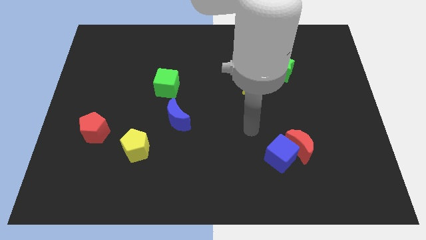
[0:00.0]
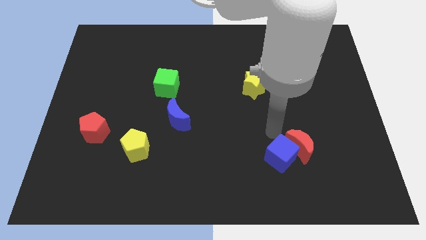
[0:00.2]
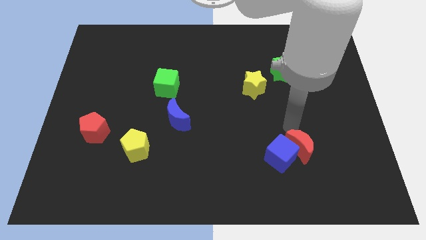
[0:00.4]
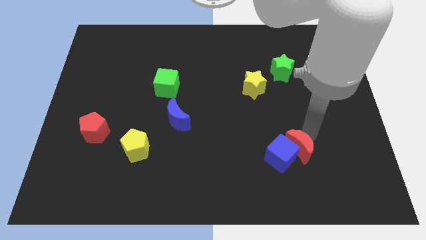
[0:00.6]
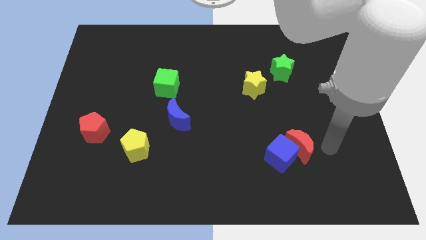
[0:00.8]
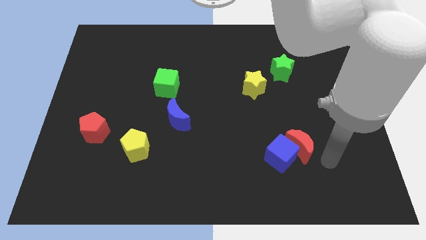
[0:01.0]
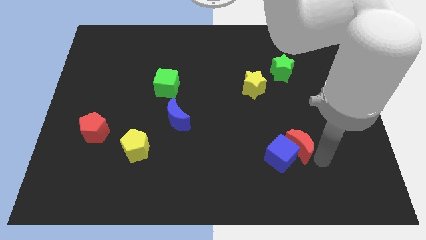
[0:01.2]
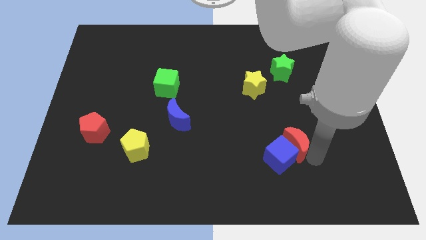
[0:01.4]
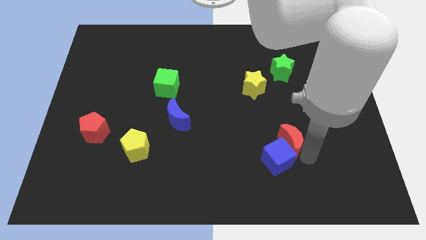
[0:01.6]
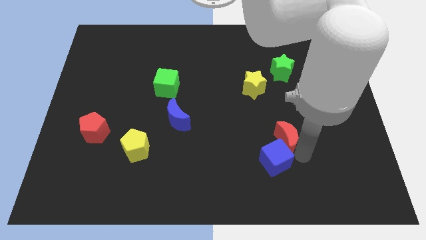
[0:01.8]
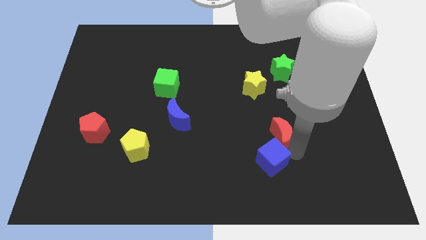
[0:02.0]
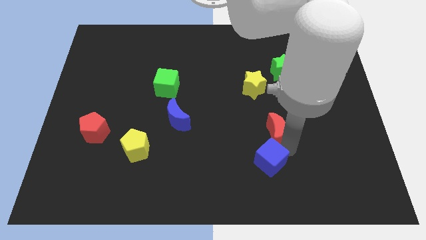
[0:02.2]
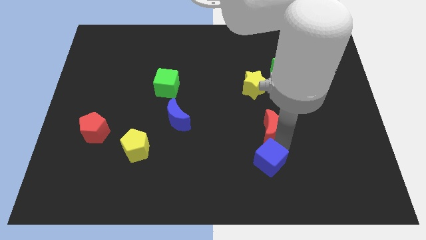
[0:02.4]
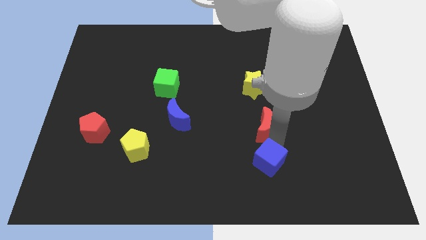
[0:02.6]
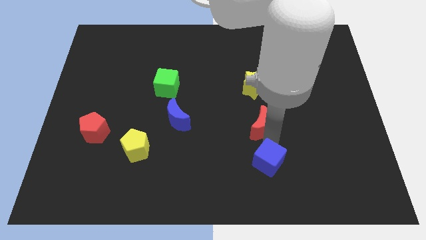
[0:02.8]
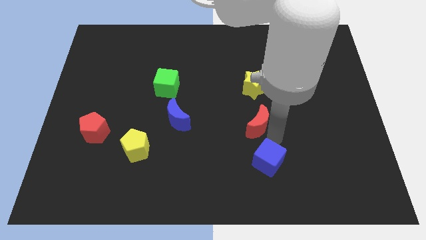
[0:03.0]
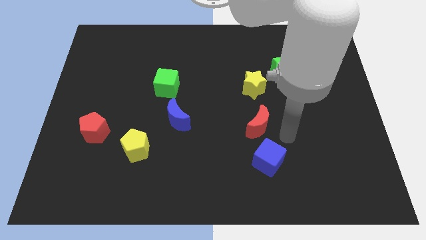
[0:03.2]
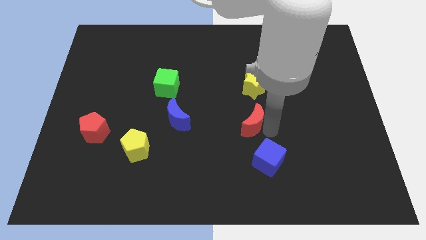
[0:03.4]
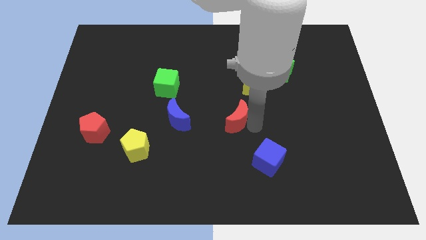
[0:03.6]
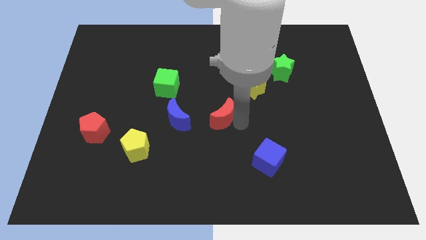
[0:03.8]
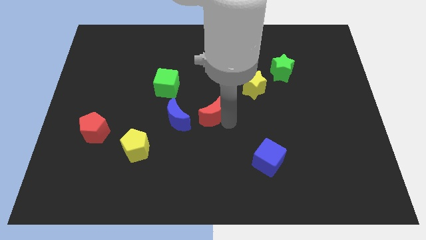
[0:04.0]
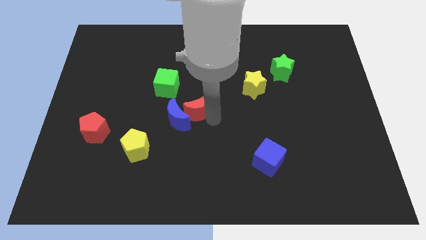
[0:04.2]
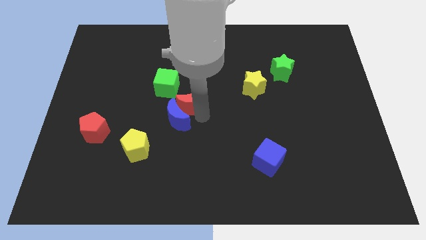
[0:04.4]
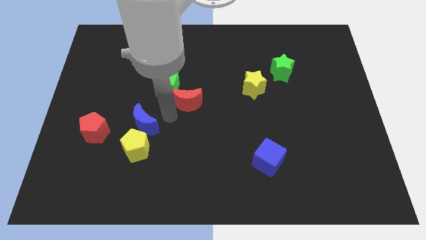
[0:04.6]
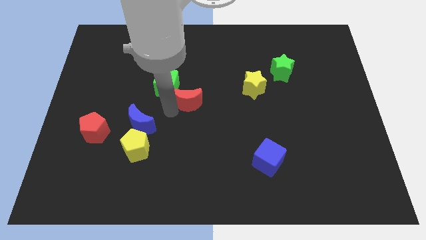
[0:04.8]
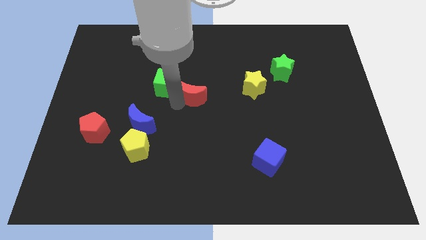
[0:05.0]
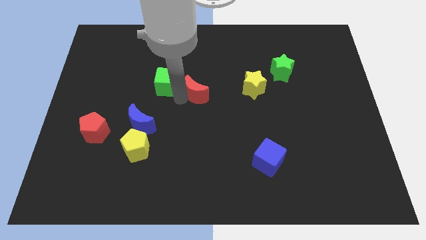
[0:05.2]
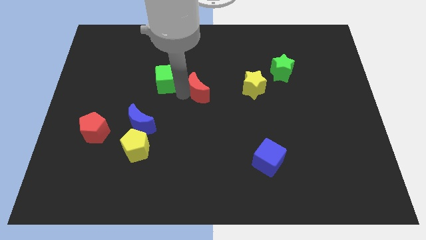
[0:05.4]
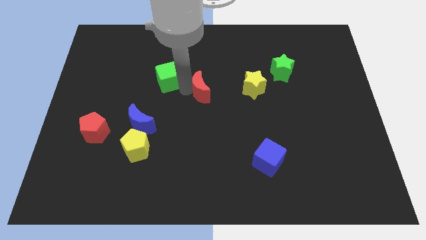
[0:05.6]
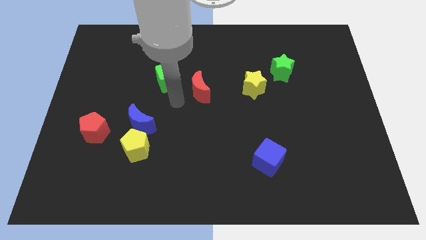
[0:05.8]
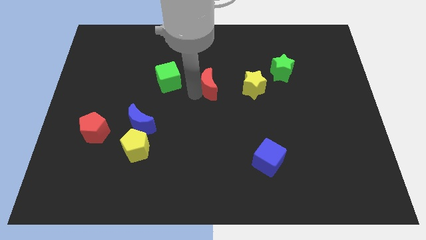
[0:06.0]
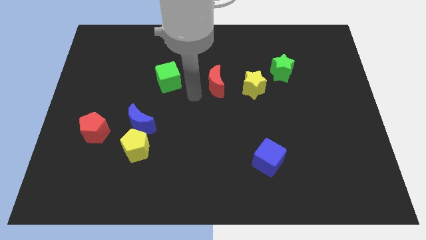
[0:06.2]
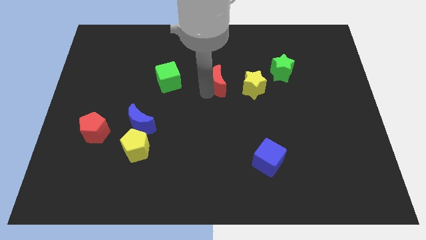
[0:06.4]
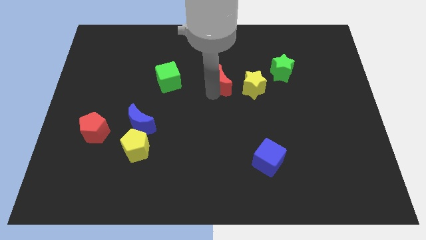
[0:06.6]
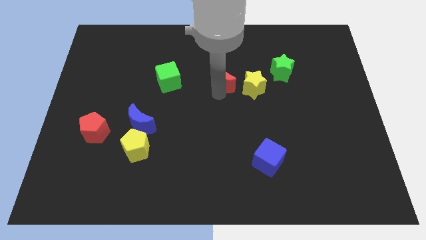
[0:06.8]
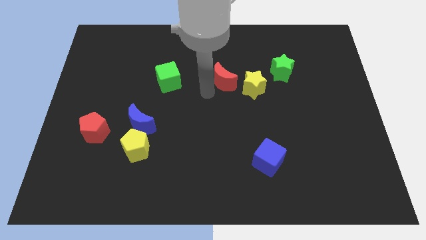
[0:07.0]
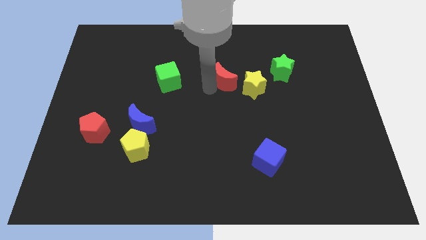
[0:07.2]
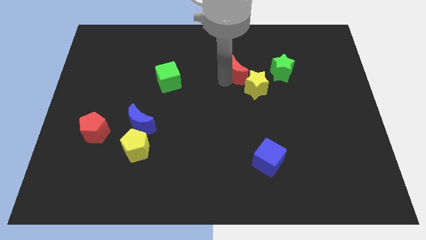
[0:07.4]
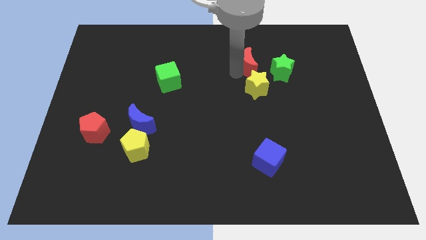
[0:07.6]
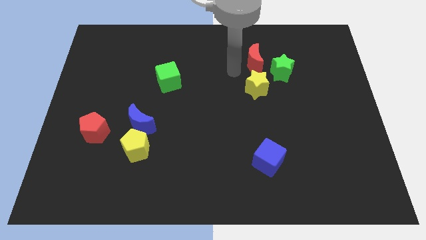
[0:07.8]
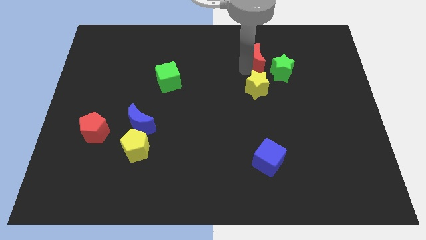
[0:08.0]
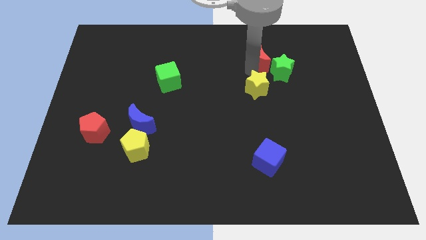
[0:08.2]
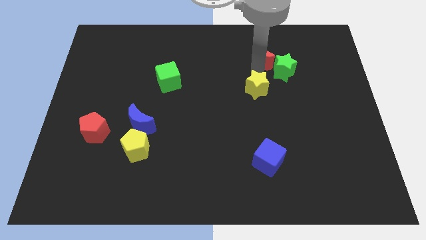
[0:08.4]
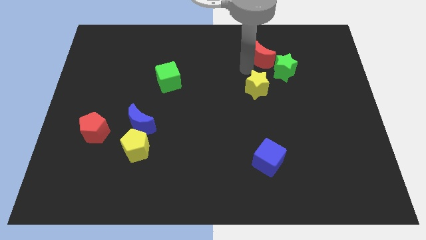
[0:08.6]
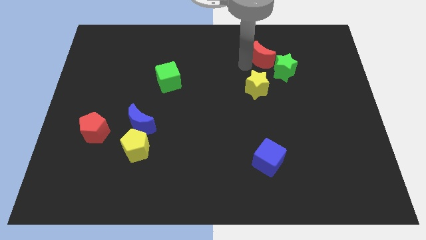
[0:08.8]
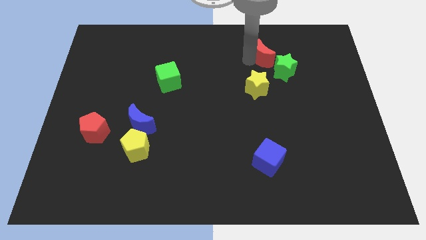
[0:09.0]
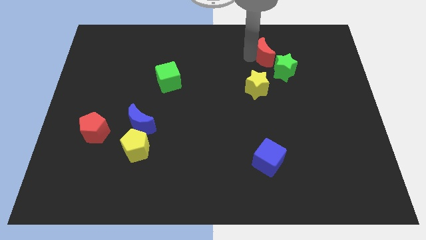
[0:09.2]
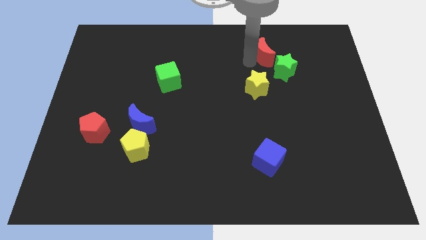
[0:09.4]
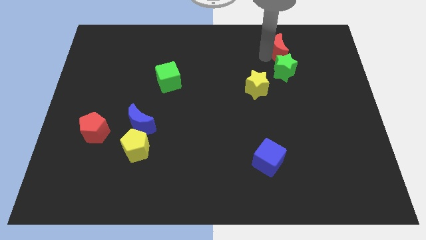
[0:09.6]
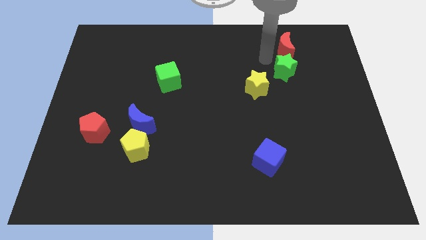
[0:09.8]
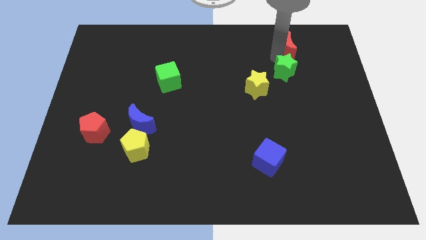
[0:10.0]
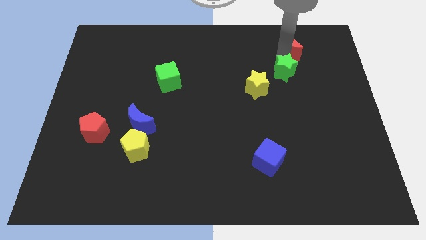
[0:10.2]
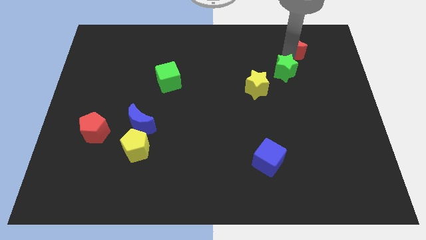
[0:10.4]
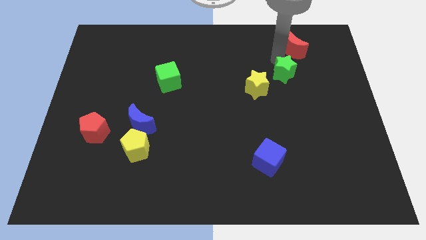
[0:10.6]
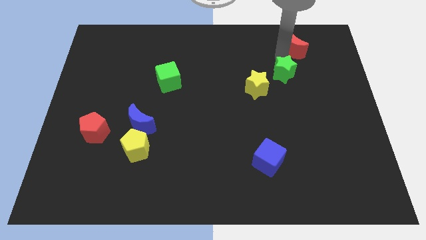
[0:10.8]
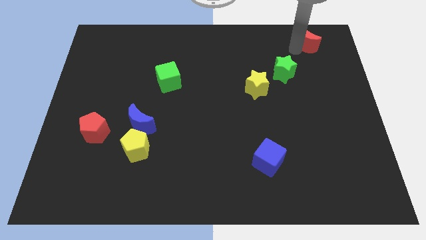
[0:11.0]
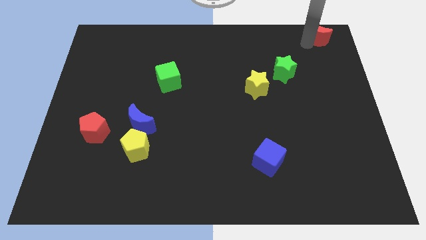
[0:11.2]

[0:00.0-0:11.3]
slide the red moon to the top right of the board

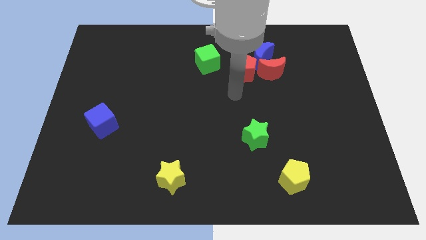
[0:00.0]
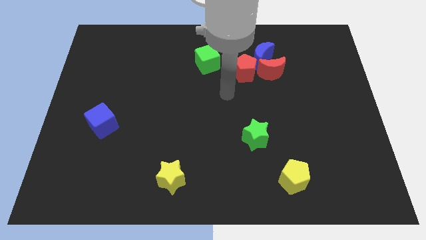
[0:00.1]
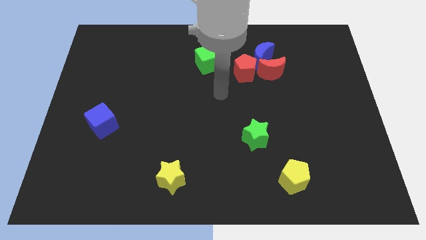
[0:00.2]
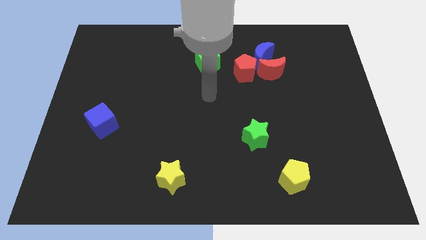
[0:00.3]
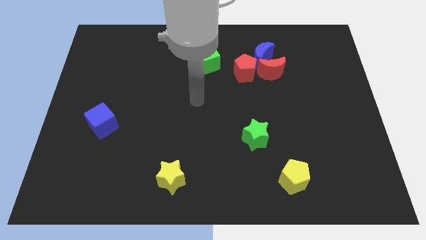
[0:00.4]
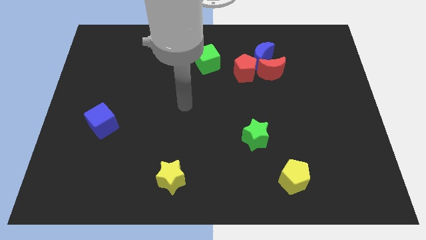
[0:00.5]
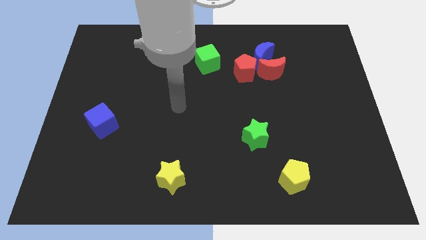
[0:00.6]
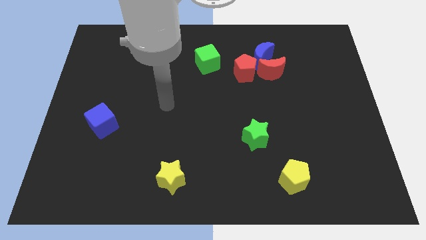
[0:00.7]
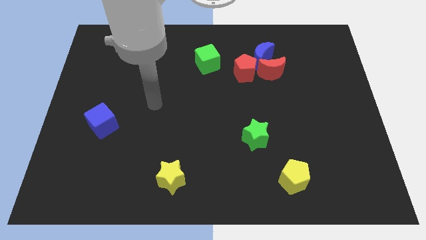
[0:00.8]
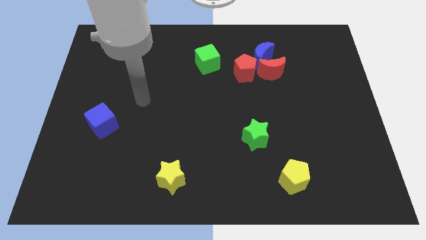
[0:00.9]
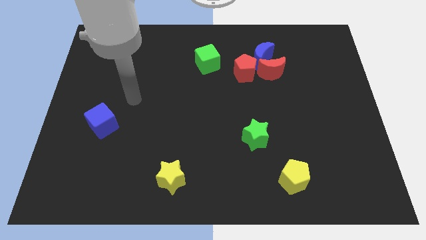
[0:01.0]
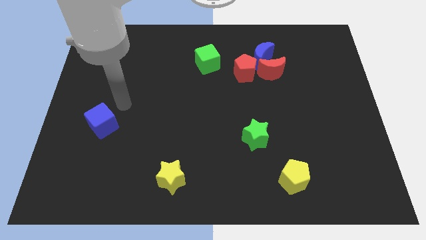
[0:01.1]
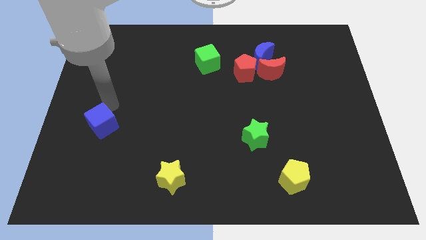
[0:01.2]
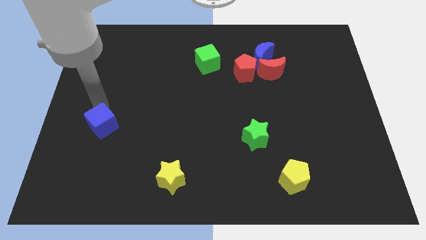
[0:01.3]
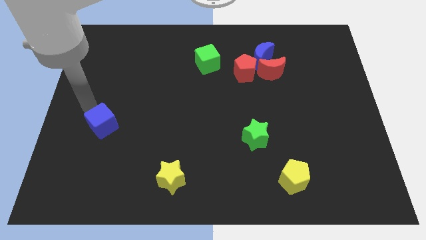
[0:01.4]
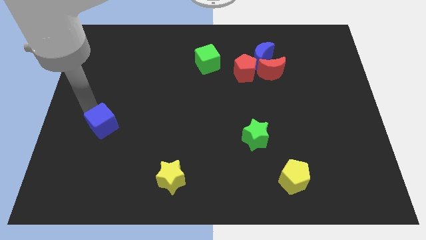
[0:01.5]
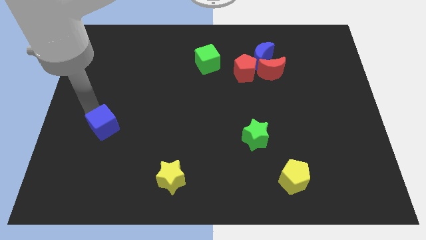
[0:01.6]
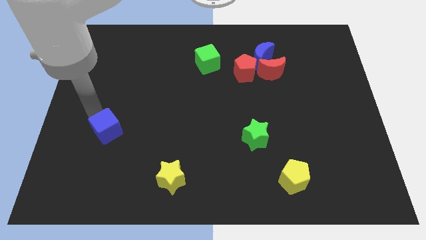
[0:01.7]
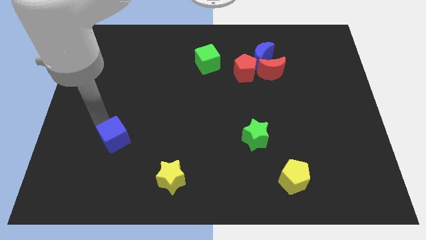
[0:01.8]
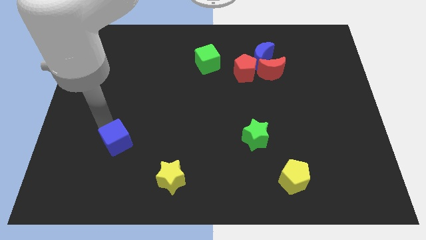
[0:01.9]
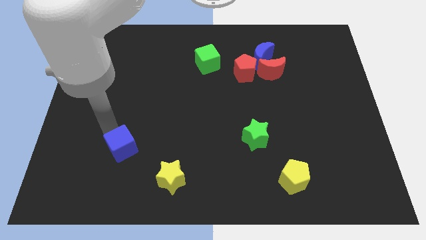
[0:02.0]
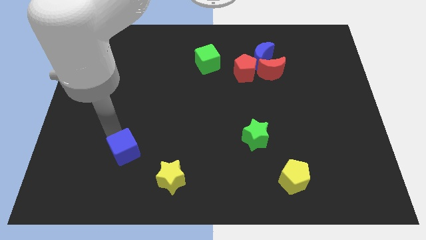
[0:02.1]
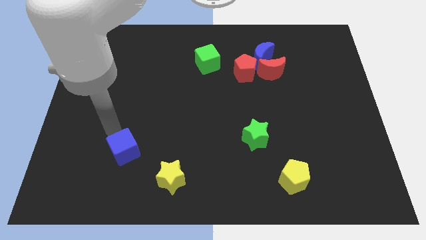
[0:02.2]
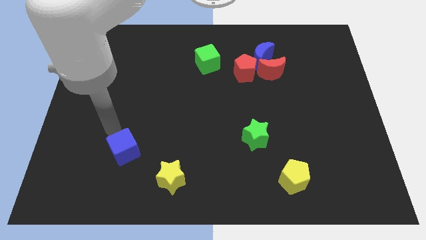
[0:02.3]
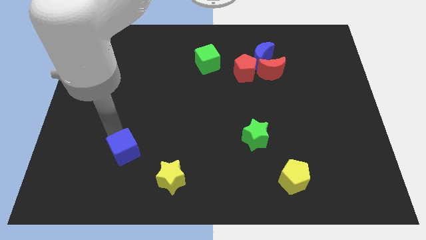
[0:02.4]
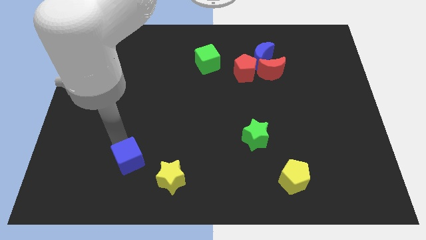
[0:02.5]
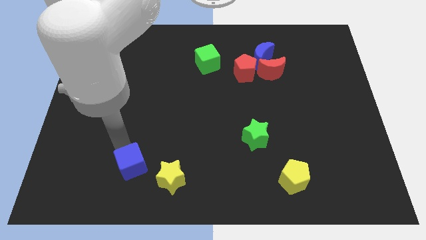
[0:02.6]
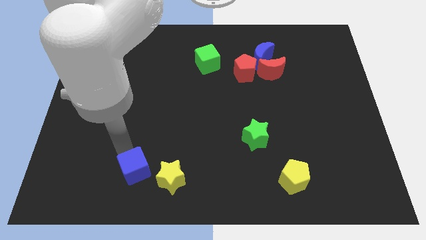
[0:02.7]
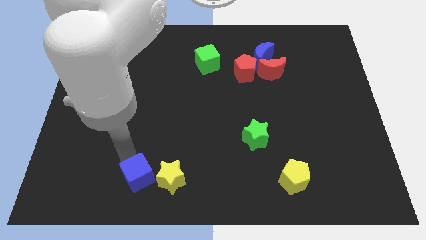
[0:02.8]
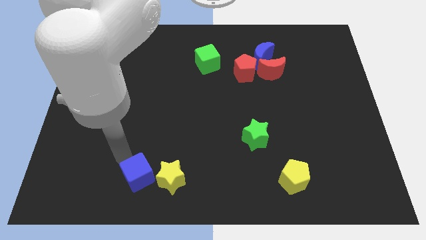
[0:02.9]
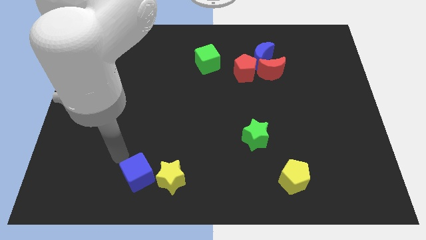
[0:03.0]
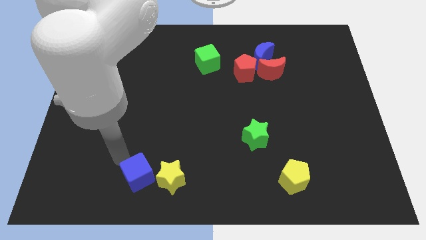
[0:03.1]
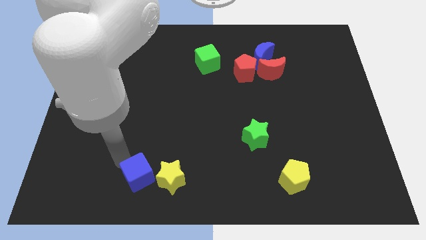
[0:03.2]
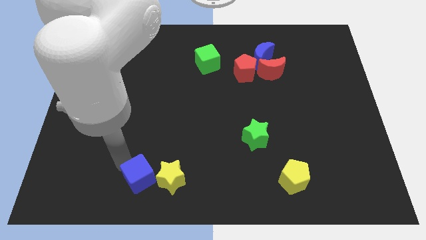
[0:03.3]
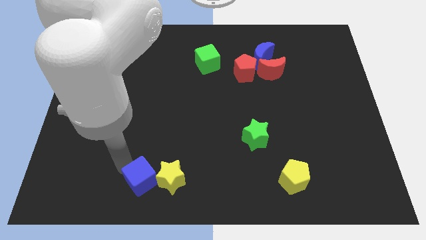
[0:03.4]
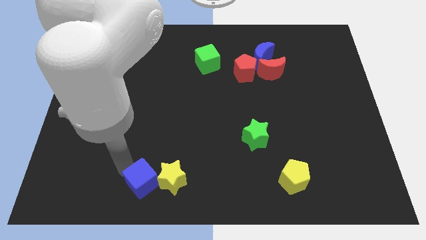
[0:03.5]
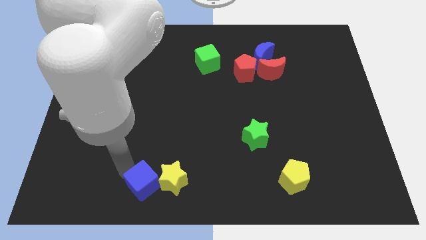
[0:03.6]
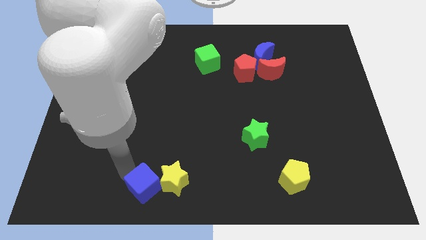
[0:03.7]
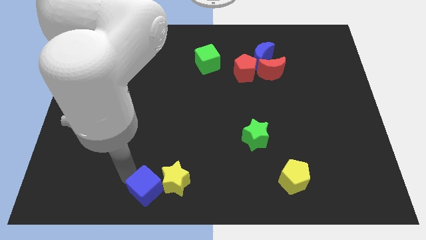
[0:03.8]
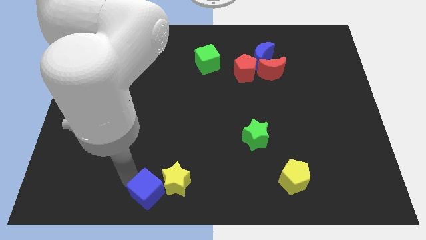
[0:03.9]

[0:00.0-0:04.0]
push the blue cube to the bottom
